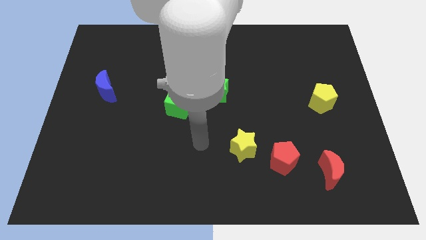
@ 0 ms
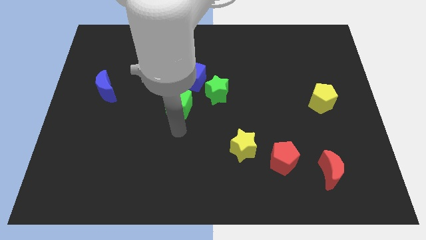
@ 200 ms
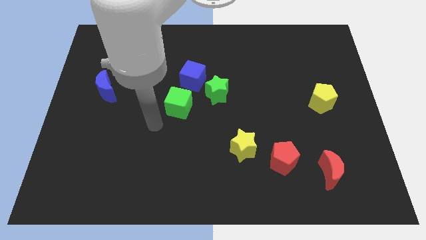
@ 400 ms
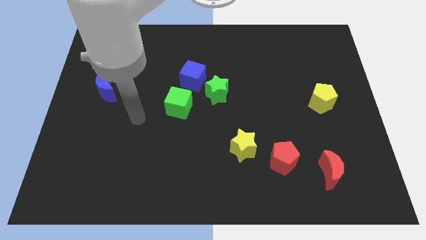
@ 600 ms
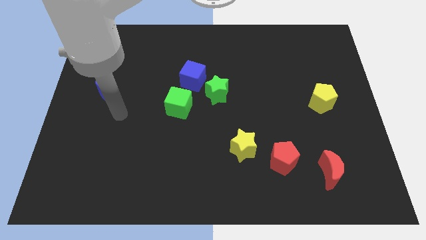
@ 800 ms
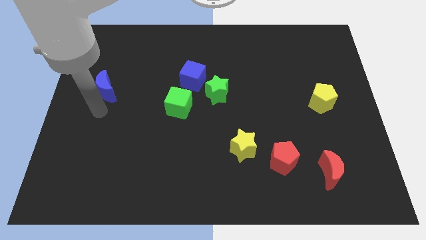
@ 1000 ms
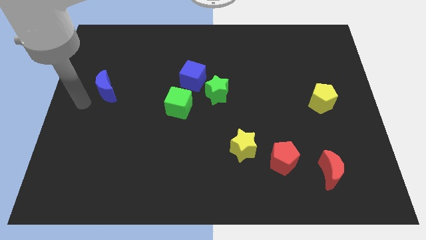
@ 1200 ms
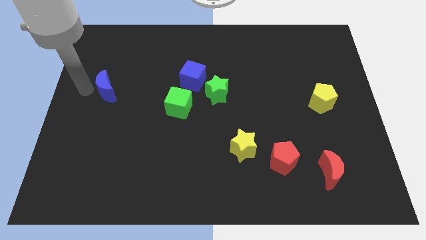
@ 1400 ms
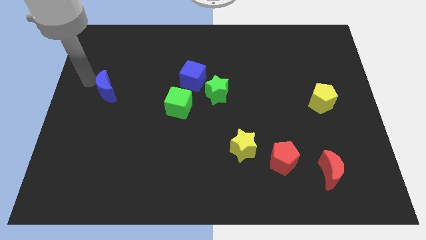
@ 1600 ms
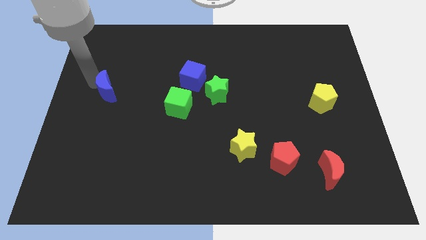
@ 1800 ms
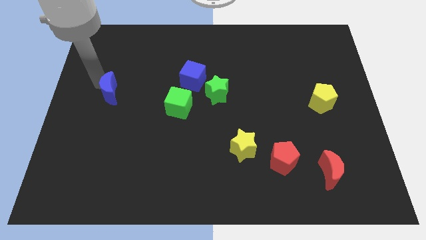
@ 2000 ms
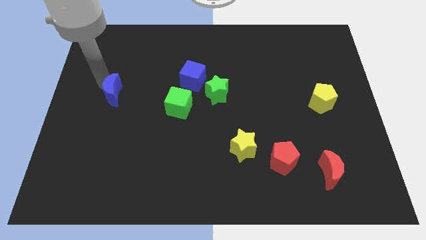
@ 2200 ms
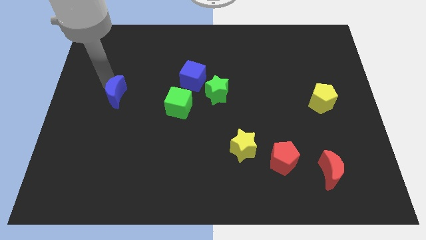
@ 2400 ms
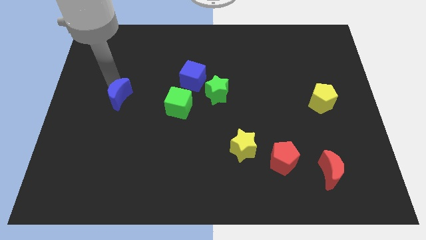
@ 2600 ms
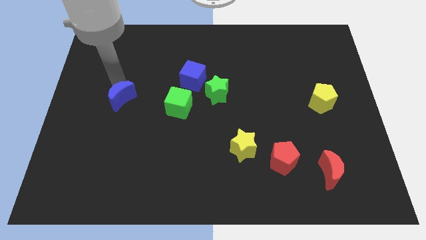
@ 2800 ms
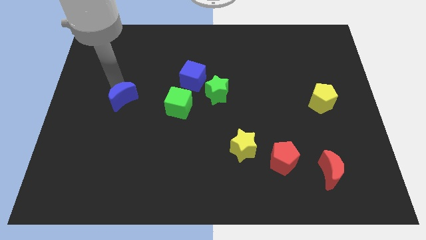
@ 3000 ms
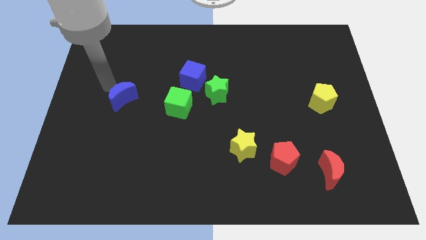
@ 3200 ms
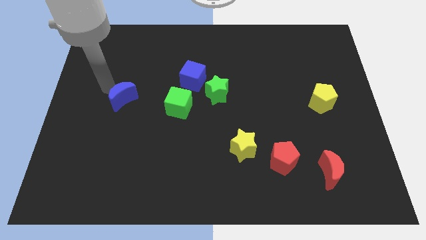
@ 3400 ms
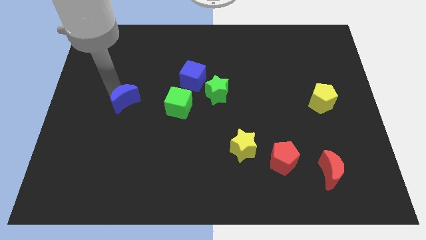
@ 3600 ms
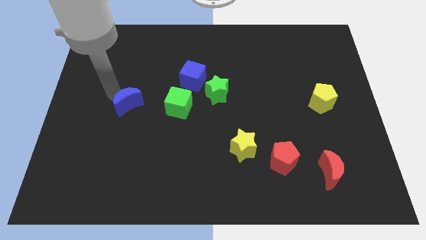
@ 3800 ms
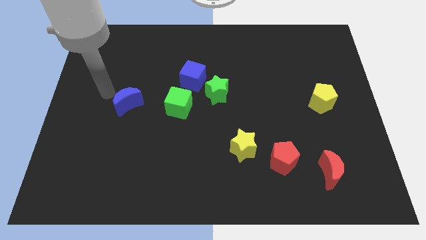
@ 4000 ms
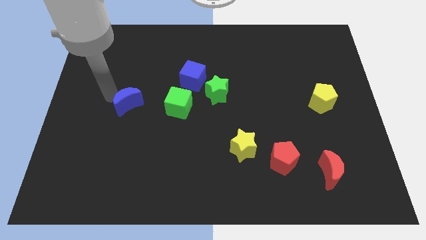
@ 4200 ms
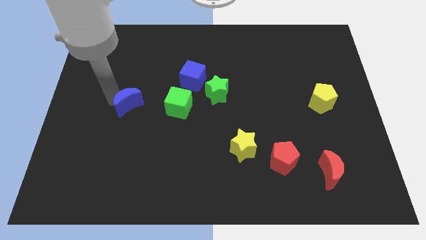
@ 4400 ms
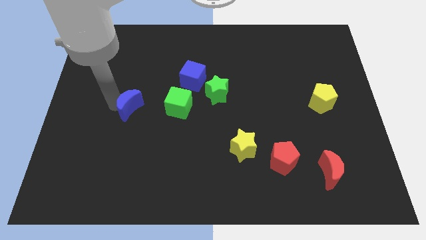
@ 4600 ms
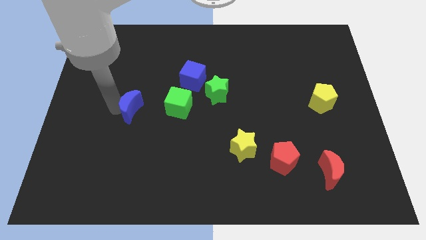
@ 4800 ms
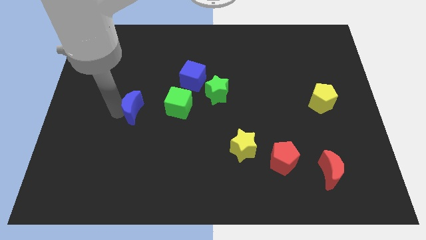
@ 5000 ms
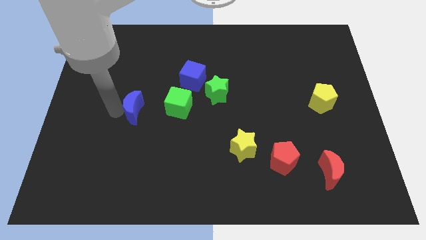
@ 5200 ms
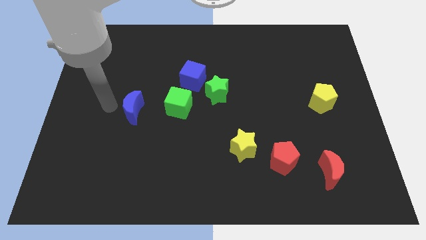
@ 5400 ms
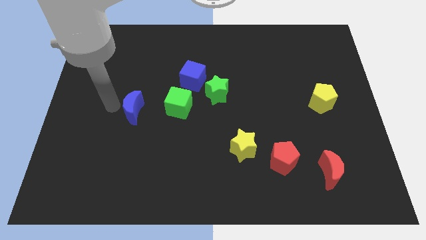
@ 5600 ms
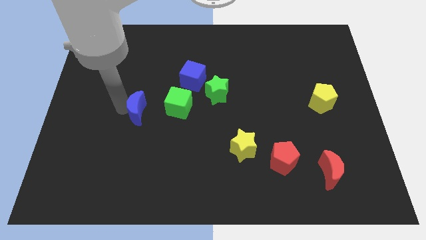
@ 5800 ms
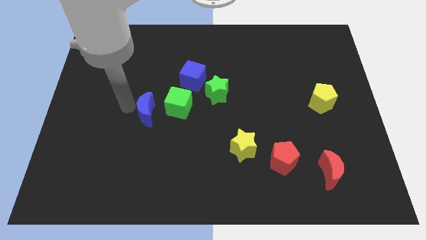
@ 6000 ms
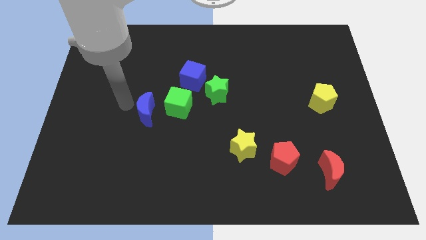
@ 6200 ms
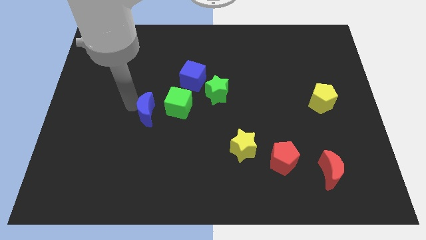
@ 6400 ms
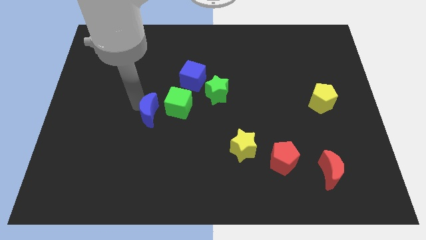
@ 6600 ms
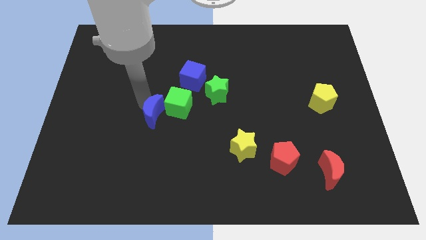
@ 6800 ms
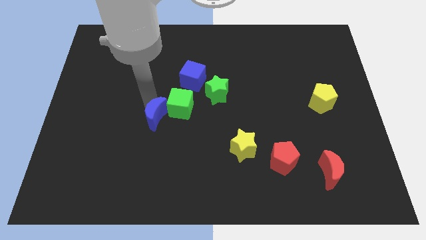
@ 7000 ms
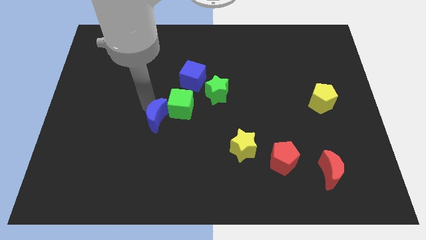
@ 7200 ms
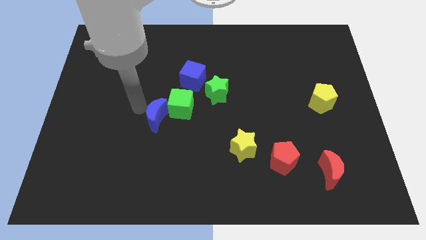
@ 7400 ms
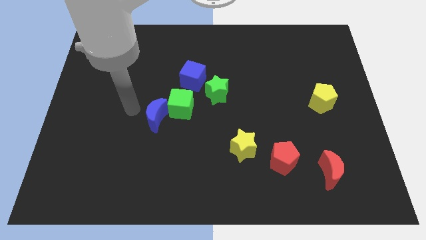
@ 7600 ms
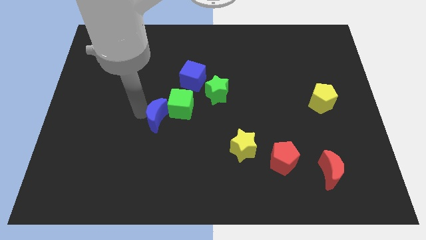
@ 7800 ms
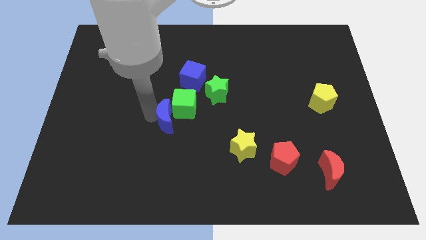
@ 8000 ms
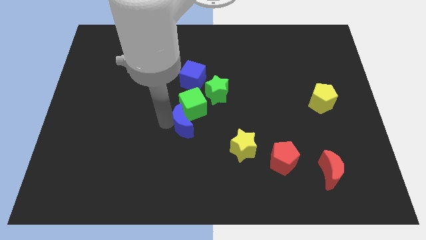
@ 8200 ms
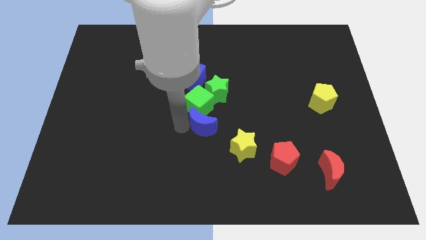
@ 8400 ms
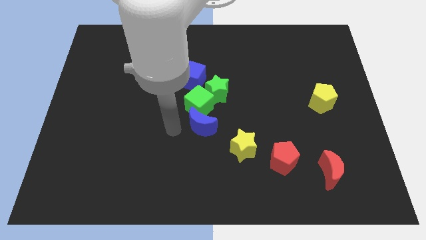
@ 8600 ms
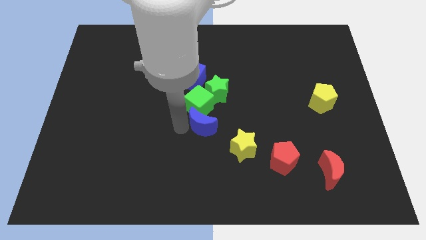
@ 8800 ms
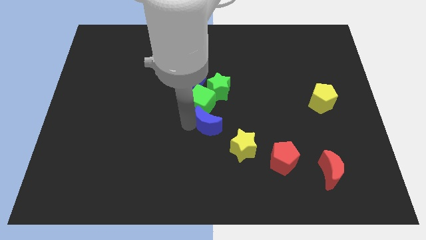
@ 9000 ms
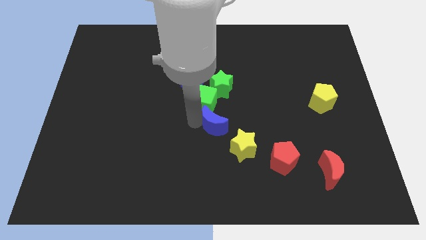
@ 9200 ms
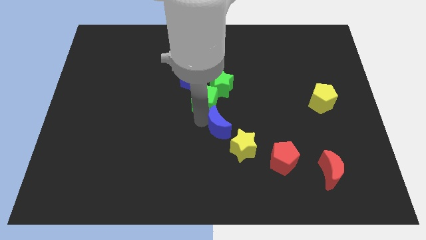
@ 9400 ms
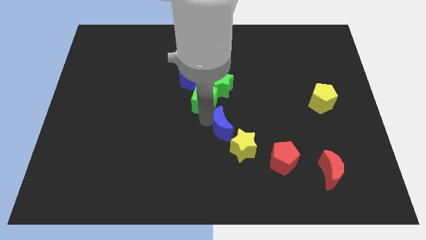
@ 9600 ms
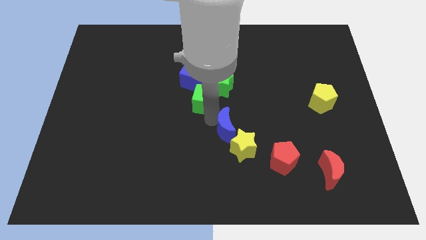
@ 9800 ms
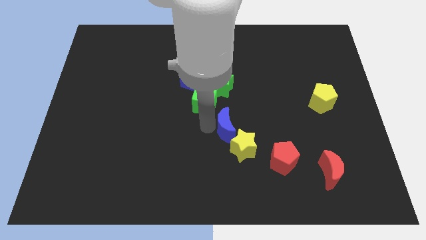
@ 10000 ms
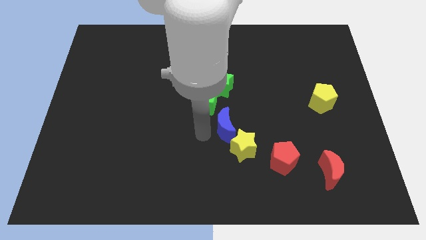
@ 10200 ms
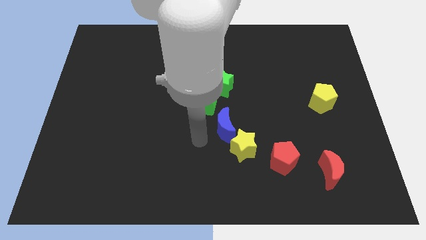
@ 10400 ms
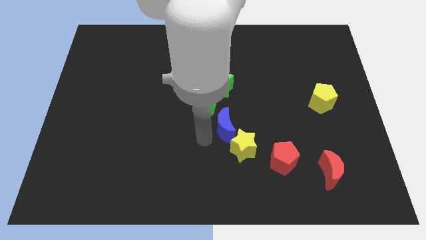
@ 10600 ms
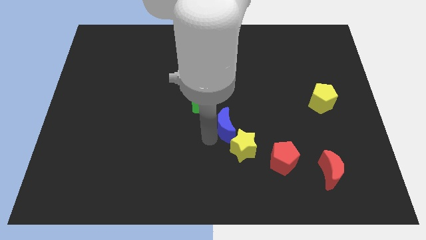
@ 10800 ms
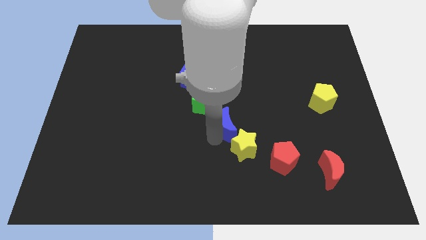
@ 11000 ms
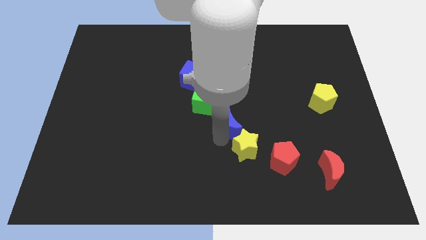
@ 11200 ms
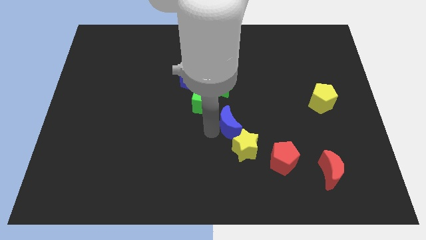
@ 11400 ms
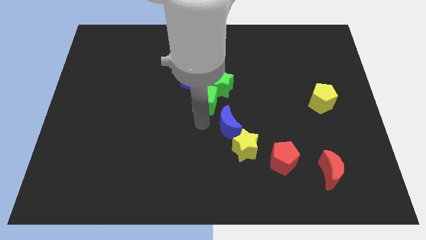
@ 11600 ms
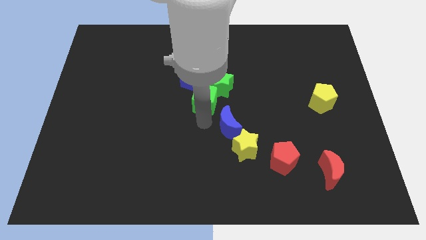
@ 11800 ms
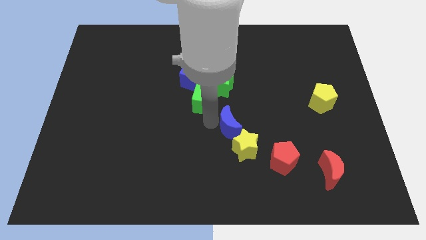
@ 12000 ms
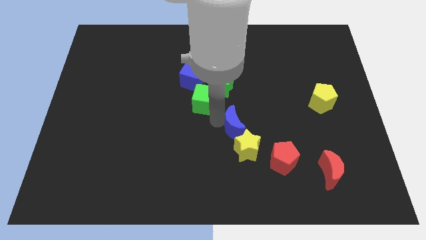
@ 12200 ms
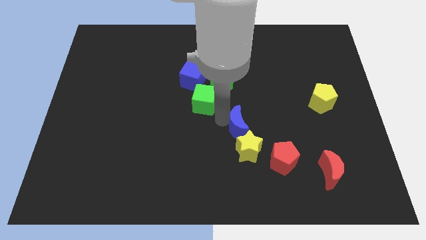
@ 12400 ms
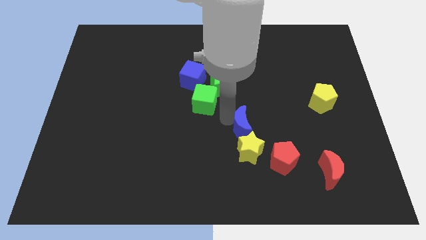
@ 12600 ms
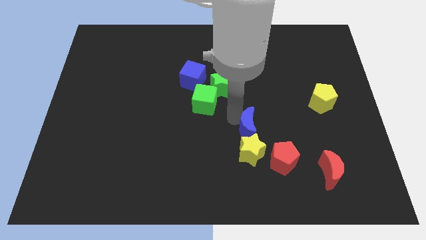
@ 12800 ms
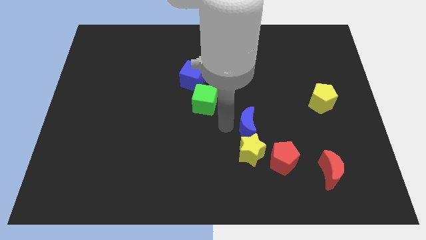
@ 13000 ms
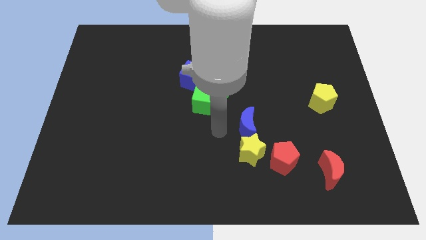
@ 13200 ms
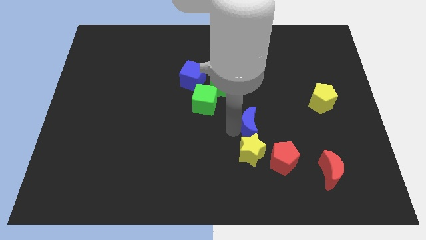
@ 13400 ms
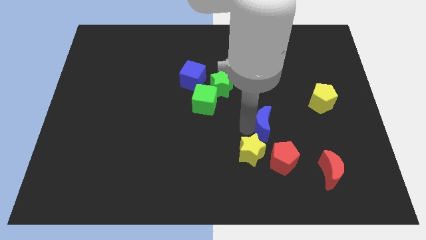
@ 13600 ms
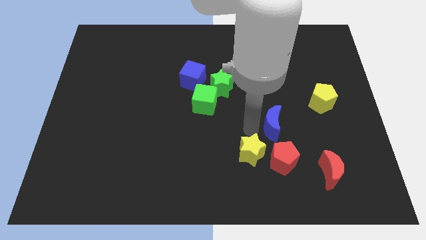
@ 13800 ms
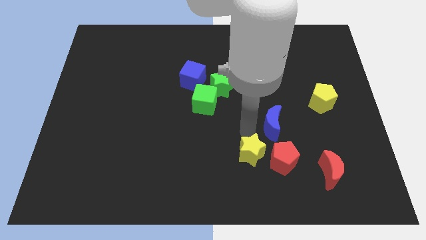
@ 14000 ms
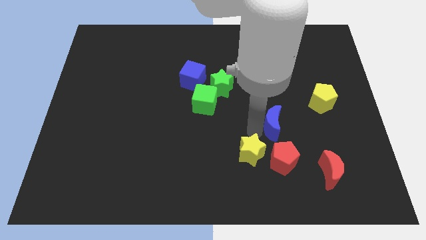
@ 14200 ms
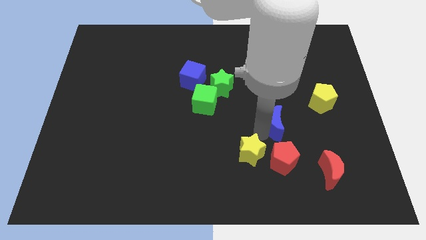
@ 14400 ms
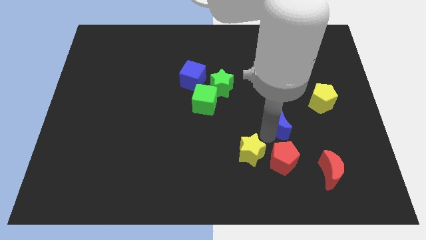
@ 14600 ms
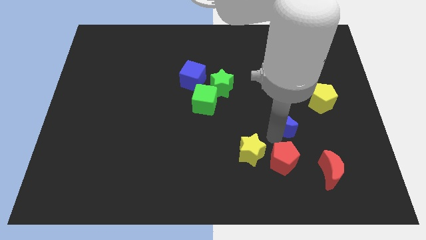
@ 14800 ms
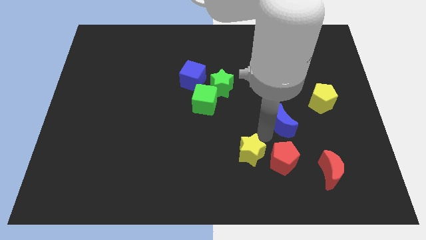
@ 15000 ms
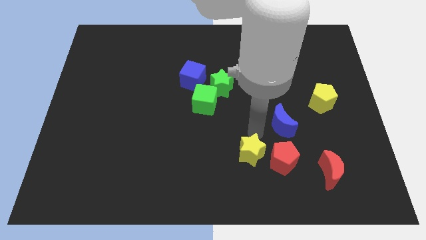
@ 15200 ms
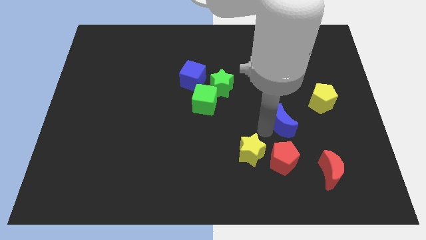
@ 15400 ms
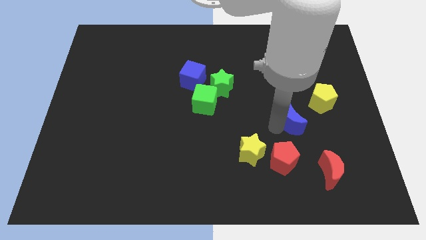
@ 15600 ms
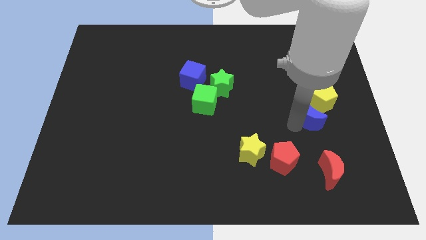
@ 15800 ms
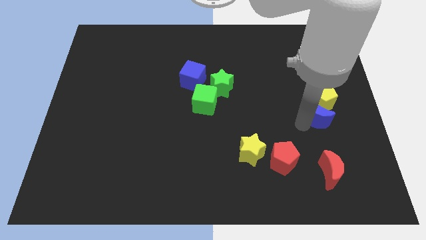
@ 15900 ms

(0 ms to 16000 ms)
push the blue moon to the yellow pentagon
